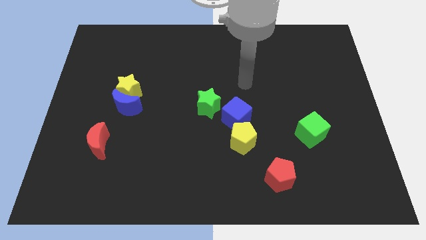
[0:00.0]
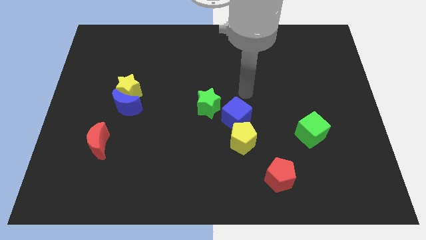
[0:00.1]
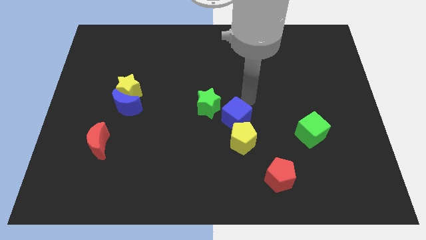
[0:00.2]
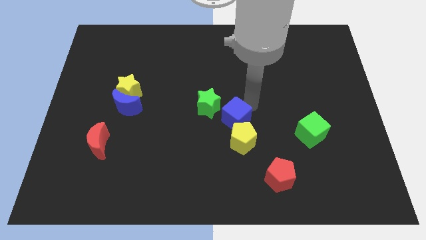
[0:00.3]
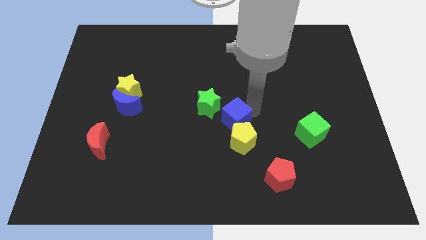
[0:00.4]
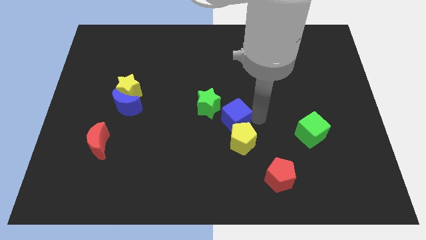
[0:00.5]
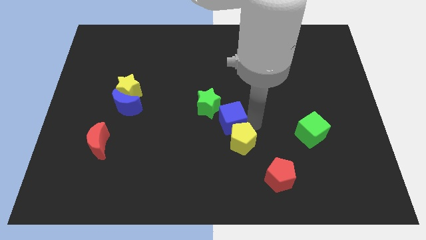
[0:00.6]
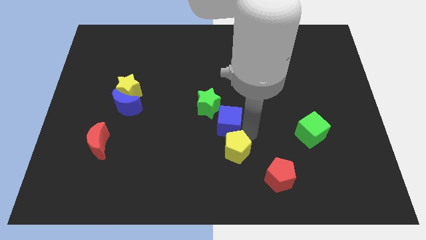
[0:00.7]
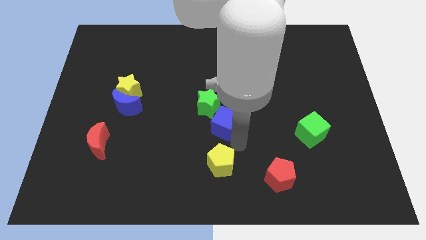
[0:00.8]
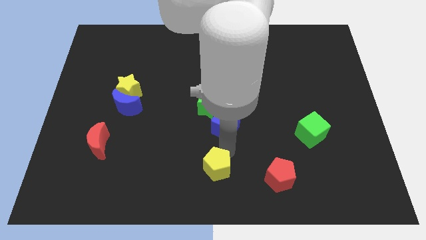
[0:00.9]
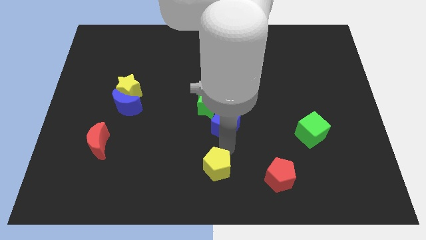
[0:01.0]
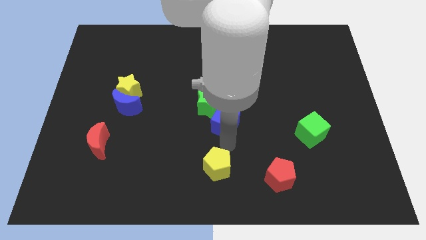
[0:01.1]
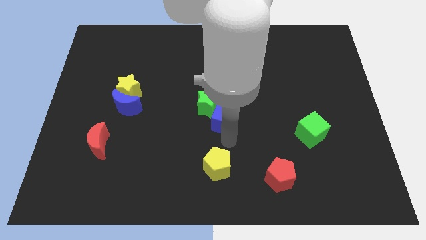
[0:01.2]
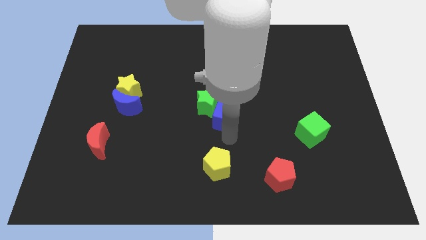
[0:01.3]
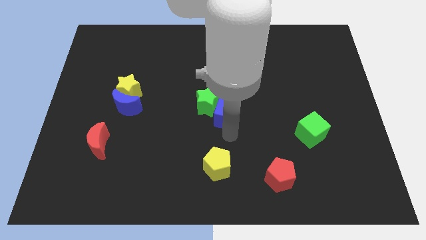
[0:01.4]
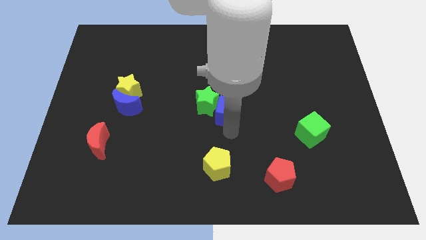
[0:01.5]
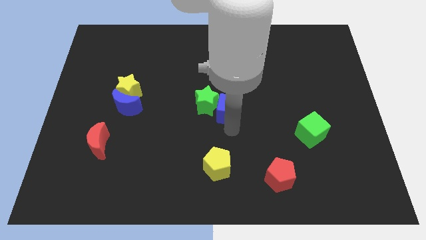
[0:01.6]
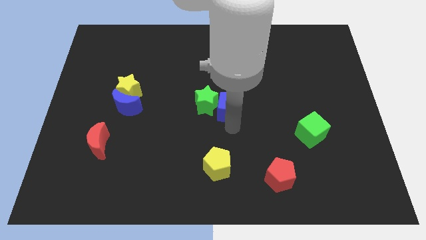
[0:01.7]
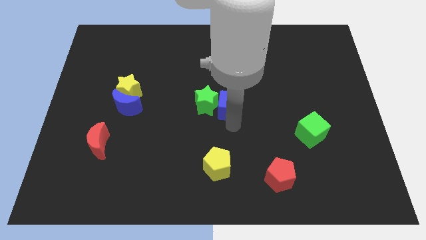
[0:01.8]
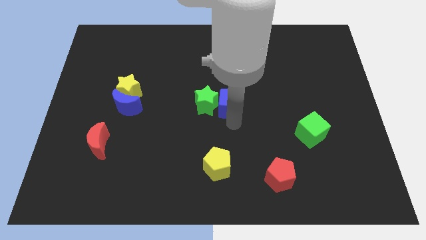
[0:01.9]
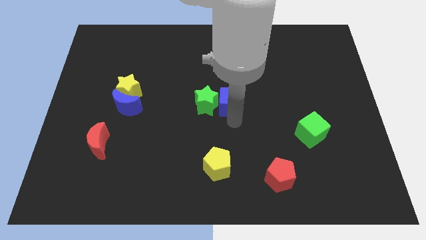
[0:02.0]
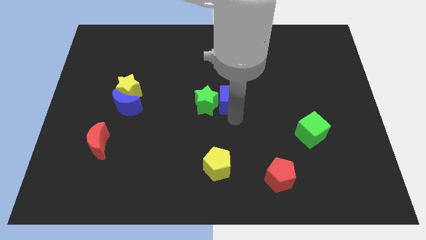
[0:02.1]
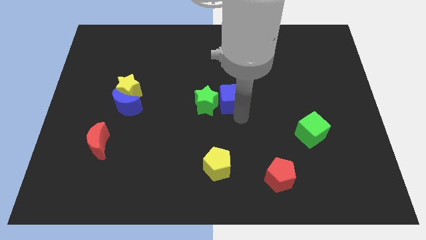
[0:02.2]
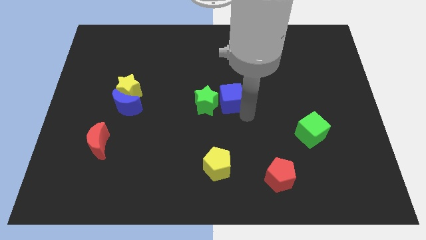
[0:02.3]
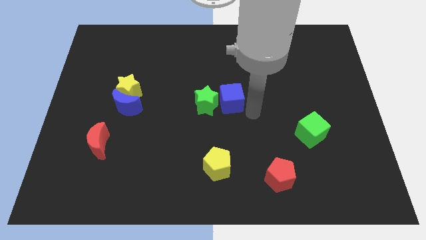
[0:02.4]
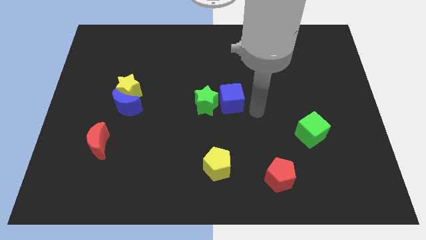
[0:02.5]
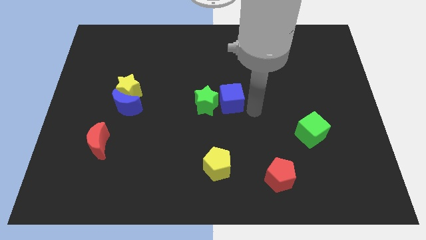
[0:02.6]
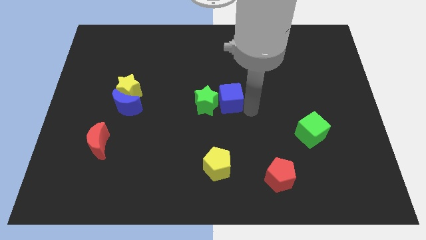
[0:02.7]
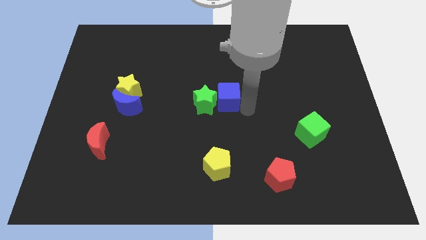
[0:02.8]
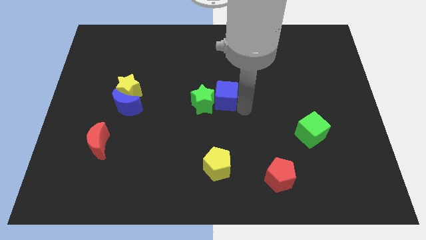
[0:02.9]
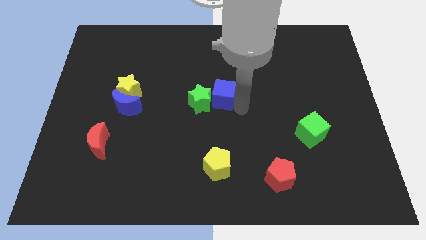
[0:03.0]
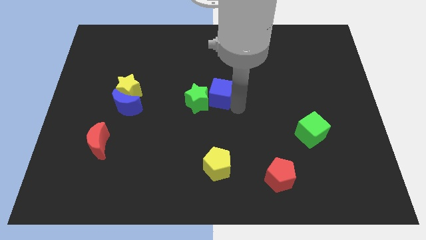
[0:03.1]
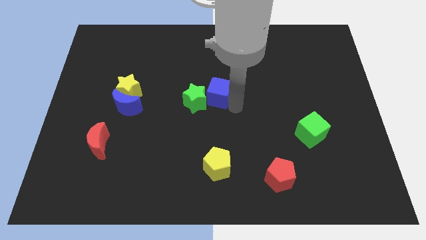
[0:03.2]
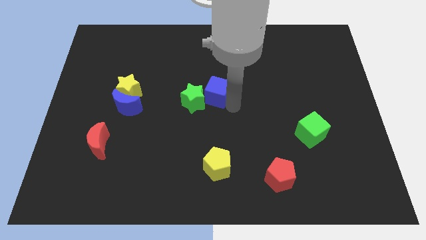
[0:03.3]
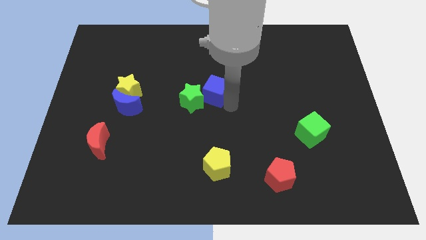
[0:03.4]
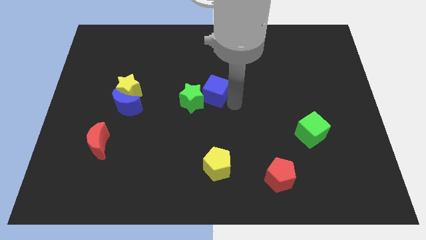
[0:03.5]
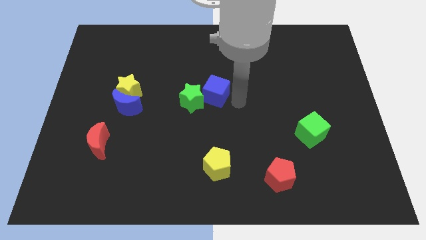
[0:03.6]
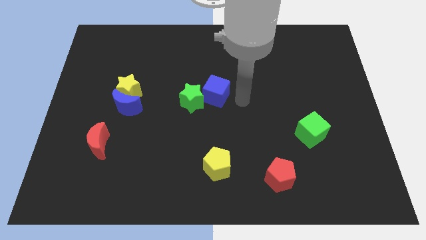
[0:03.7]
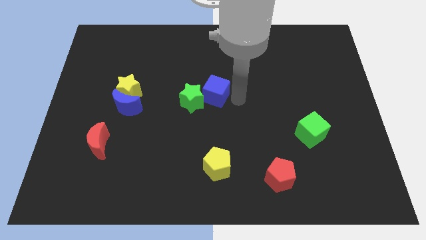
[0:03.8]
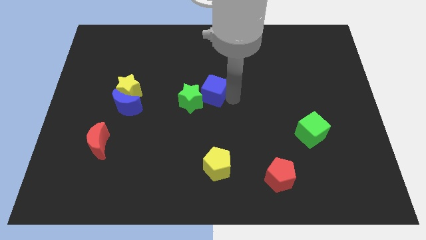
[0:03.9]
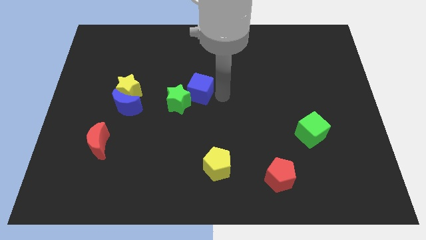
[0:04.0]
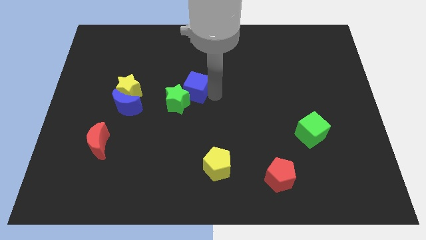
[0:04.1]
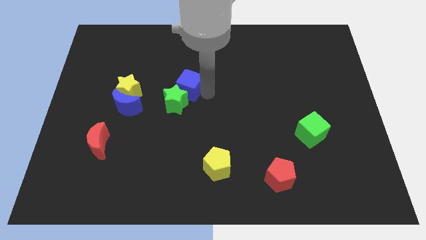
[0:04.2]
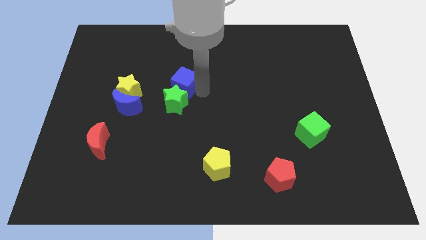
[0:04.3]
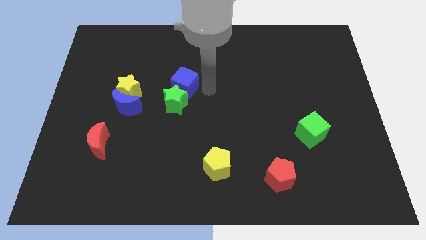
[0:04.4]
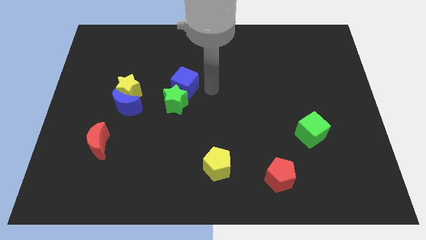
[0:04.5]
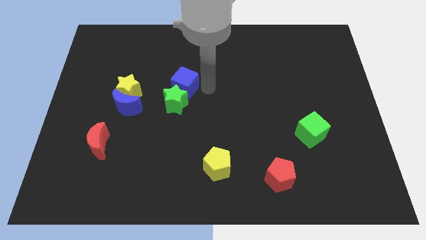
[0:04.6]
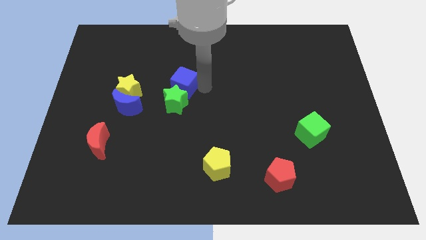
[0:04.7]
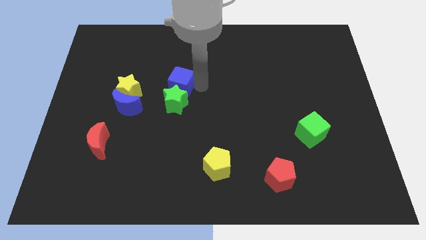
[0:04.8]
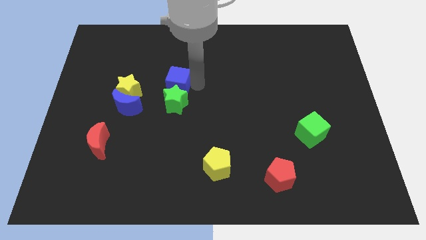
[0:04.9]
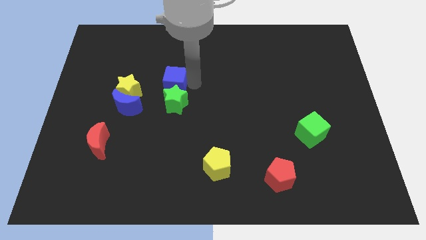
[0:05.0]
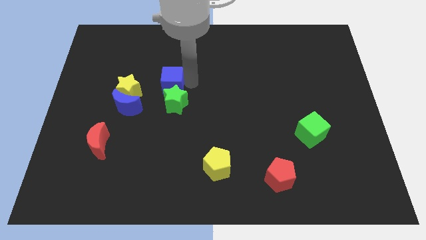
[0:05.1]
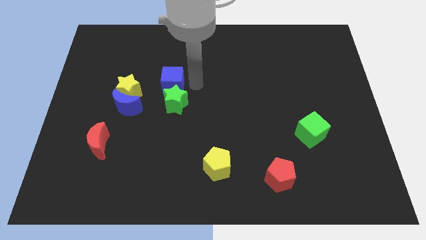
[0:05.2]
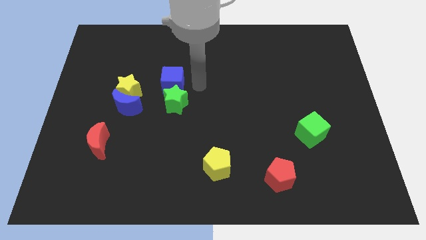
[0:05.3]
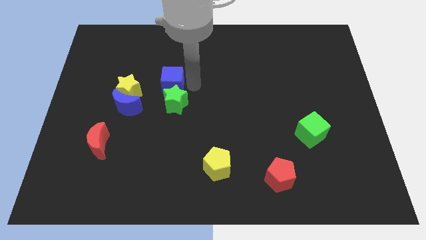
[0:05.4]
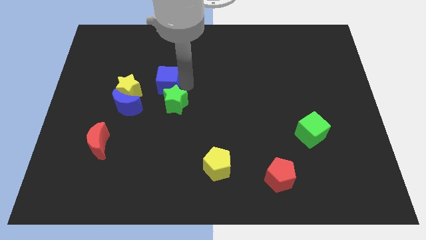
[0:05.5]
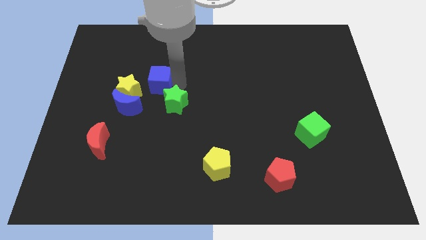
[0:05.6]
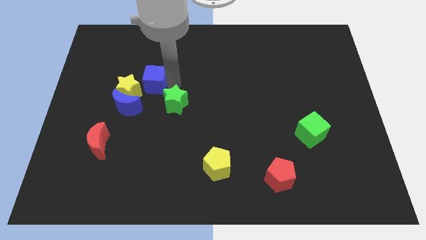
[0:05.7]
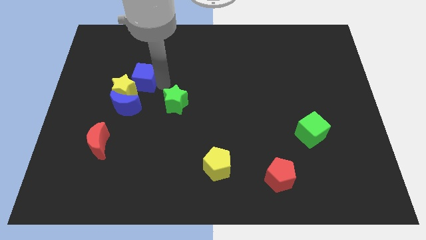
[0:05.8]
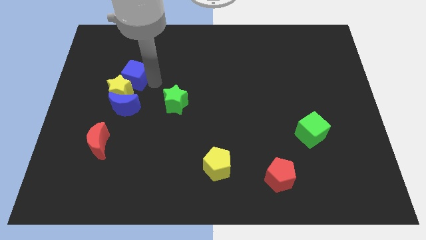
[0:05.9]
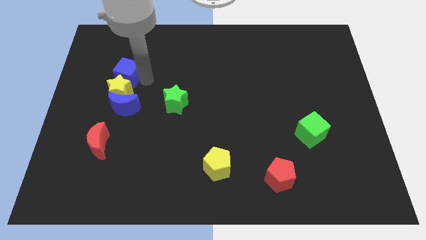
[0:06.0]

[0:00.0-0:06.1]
push the blue cube to the top left side of the yellow star

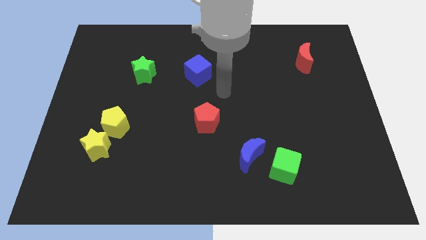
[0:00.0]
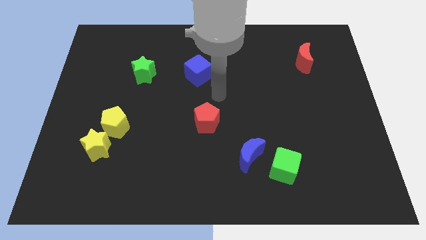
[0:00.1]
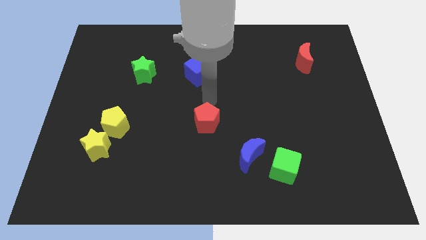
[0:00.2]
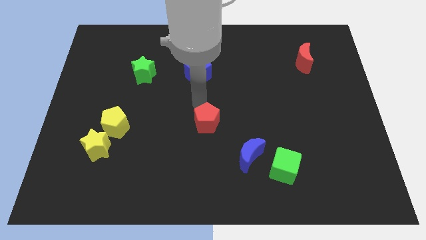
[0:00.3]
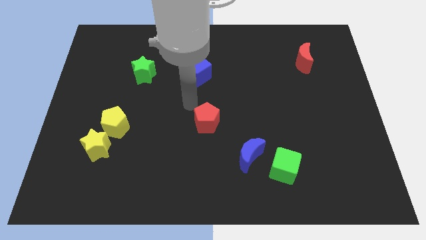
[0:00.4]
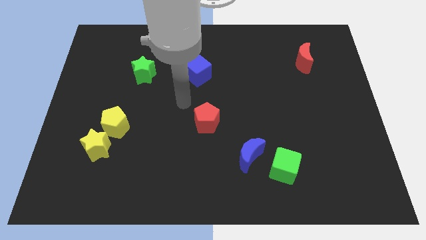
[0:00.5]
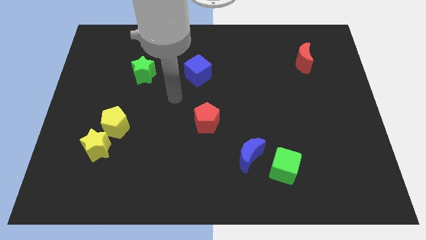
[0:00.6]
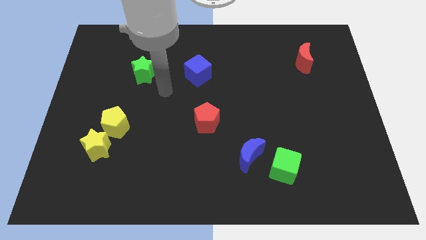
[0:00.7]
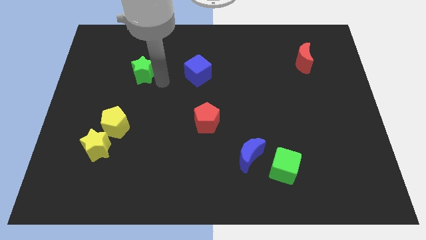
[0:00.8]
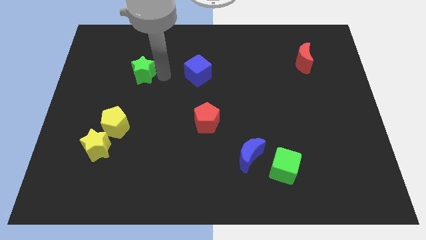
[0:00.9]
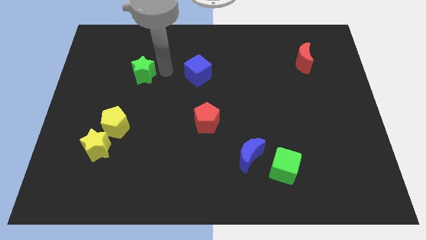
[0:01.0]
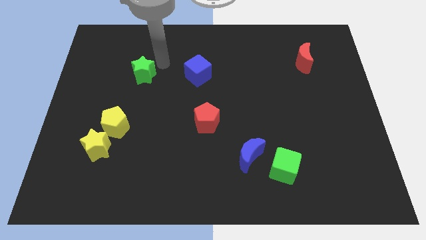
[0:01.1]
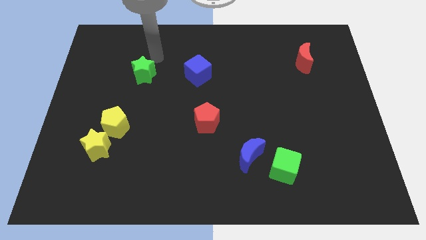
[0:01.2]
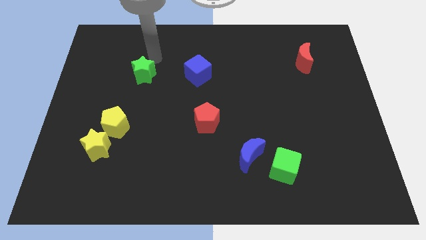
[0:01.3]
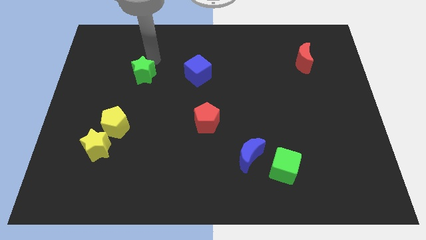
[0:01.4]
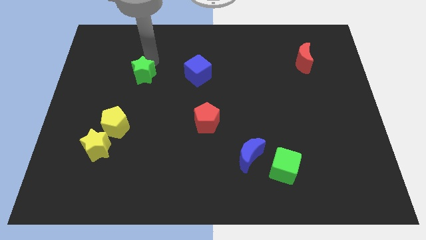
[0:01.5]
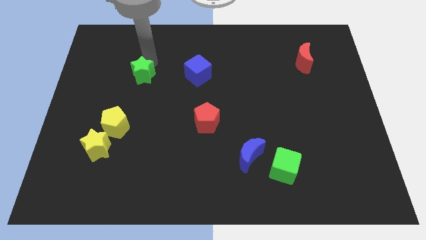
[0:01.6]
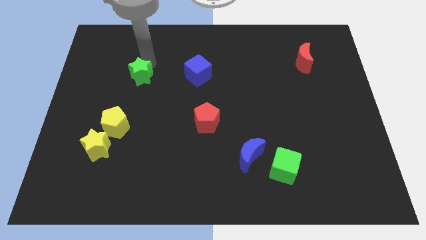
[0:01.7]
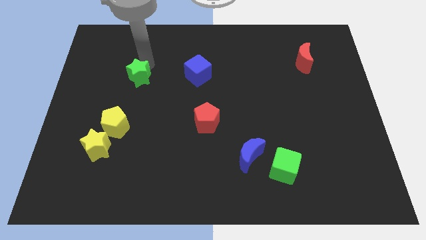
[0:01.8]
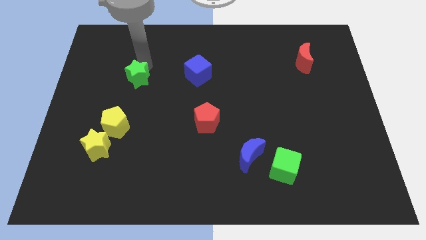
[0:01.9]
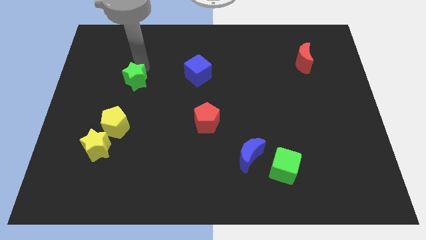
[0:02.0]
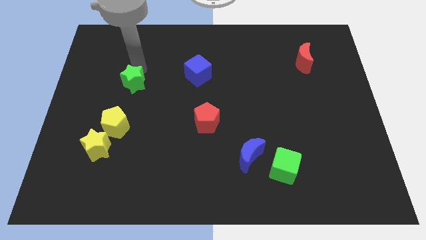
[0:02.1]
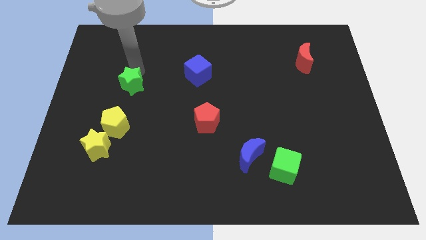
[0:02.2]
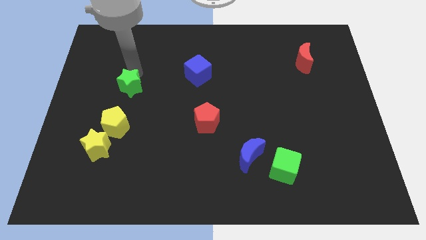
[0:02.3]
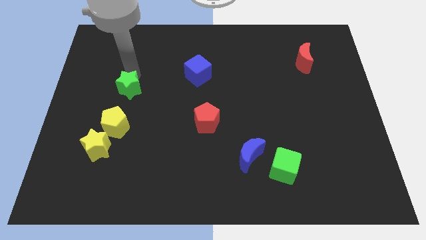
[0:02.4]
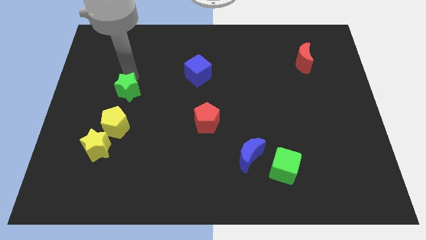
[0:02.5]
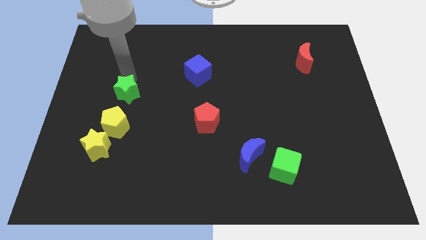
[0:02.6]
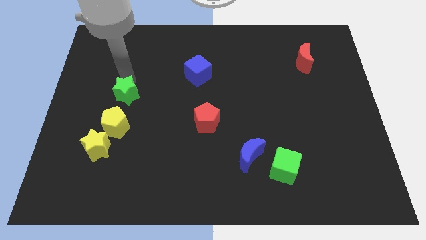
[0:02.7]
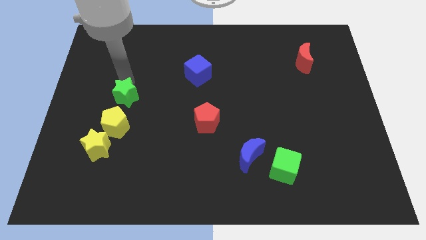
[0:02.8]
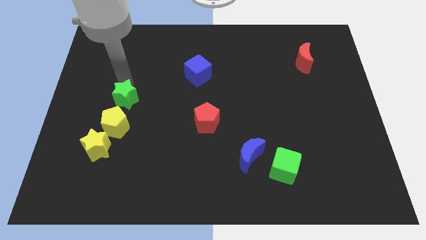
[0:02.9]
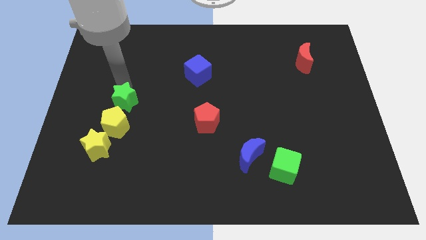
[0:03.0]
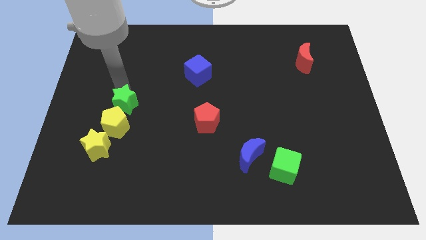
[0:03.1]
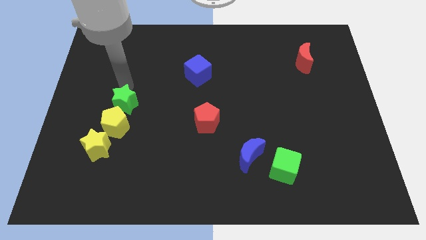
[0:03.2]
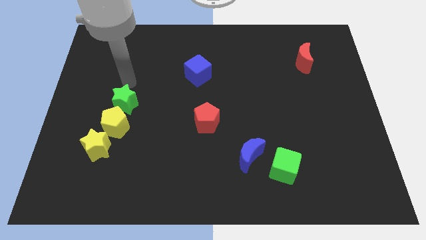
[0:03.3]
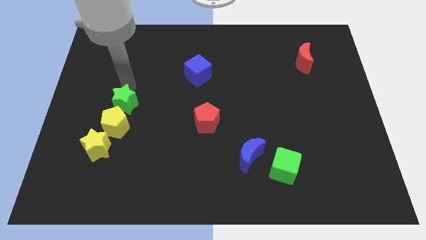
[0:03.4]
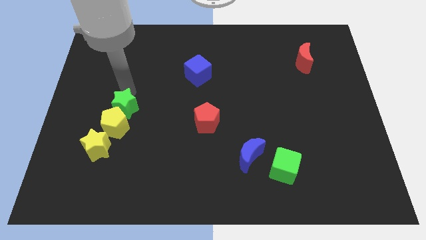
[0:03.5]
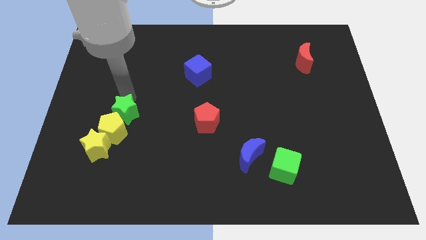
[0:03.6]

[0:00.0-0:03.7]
move the green star to the top right of the yellow star
